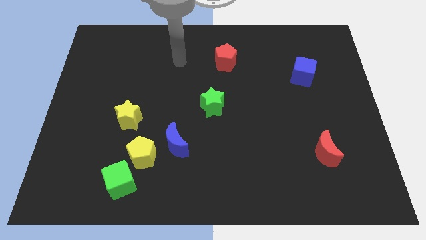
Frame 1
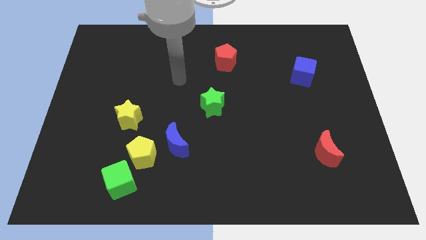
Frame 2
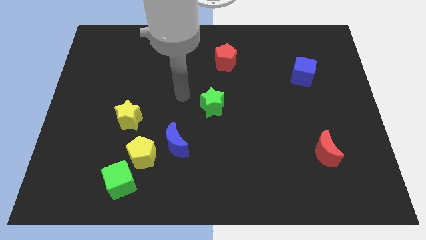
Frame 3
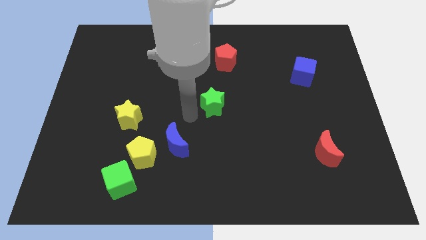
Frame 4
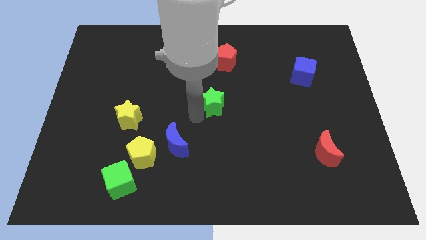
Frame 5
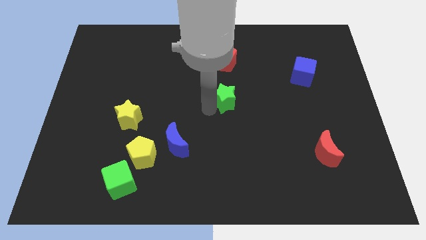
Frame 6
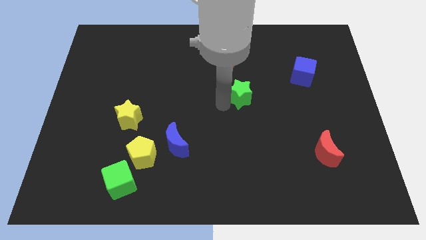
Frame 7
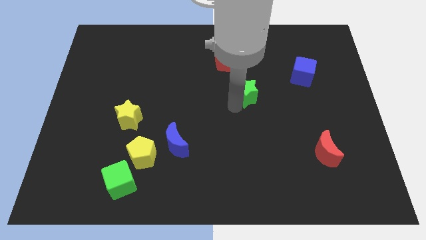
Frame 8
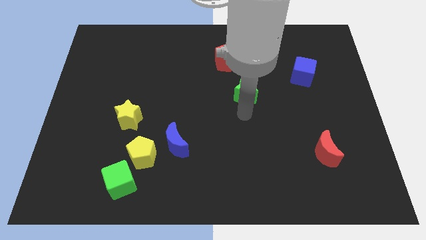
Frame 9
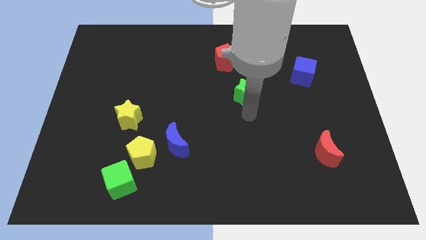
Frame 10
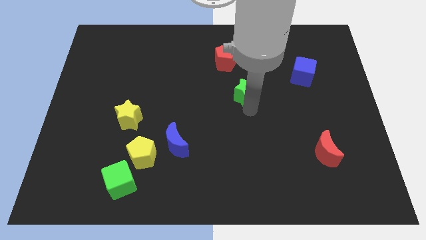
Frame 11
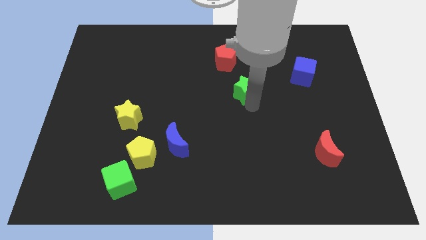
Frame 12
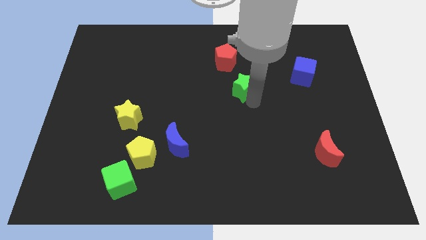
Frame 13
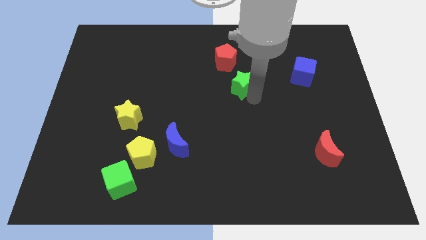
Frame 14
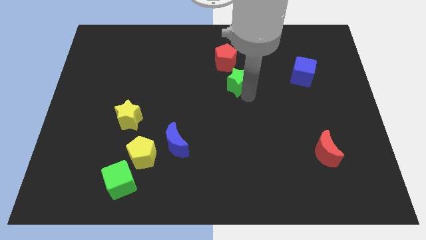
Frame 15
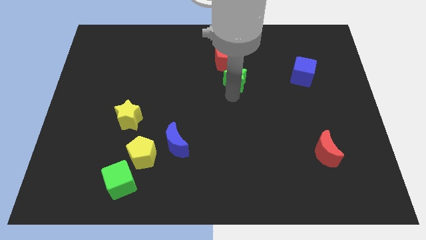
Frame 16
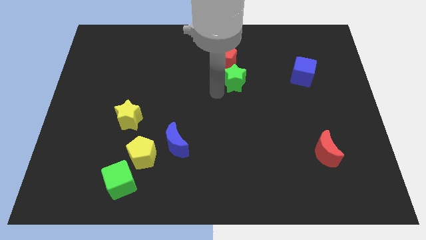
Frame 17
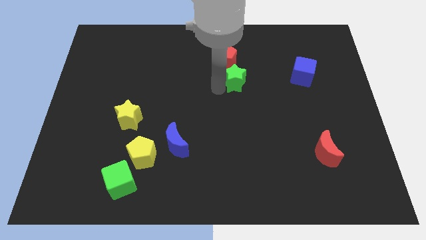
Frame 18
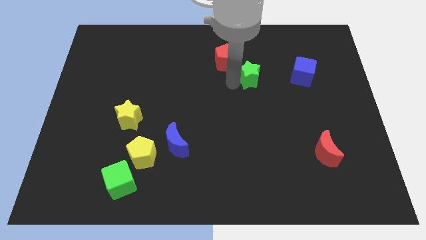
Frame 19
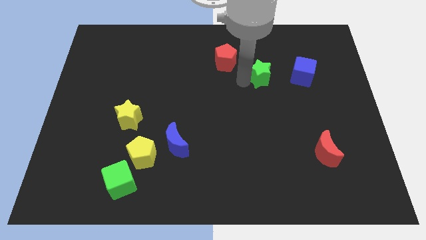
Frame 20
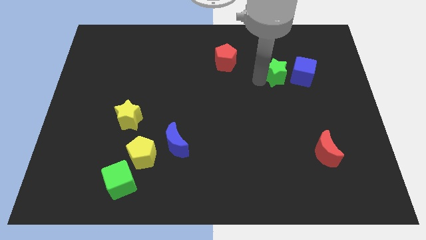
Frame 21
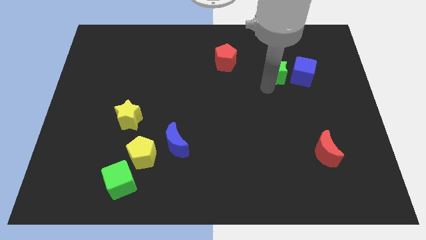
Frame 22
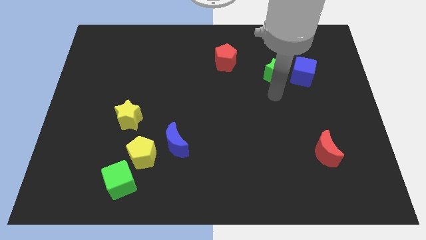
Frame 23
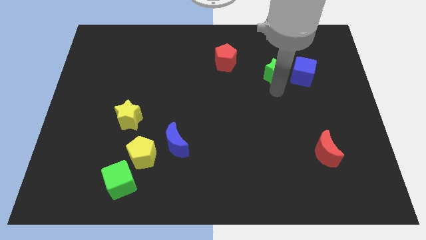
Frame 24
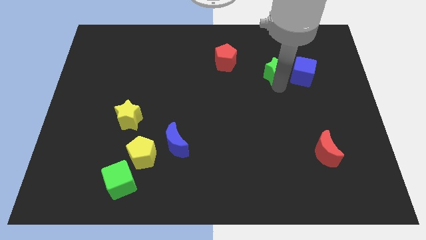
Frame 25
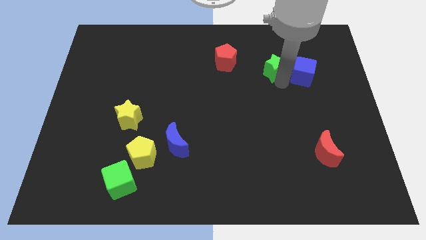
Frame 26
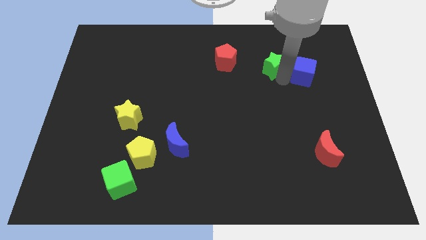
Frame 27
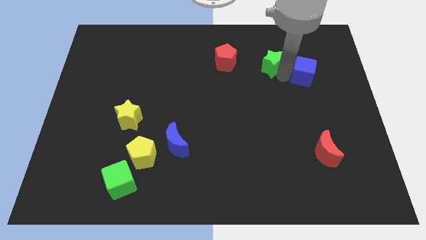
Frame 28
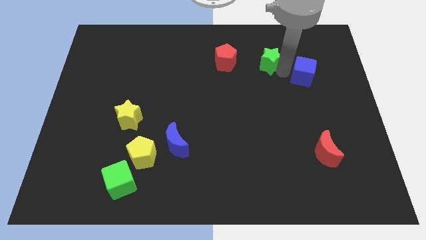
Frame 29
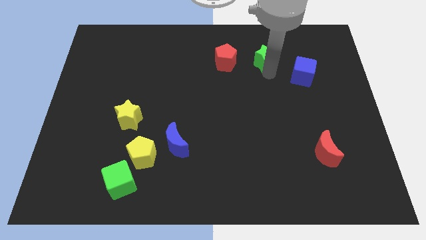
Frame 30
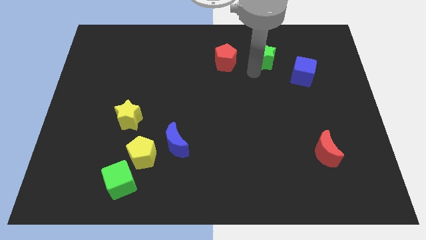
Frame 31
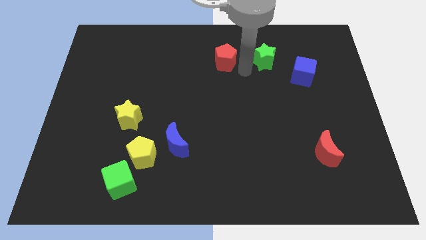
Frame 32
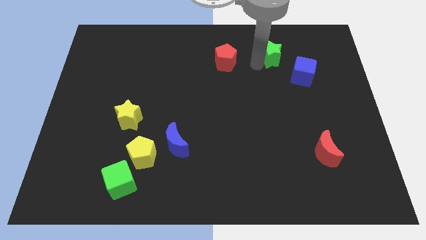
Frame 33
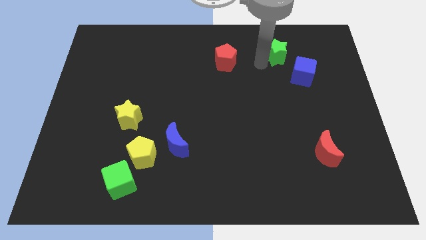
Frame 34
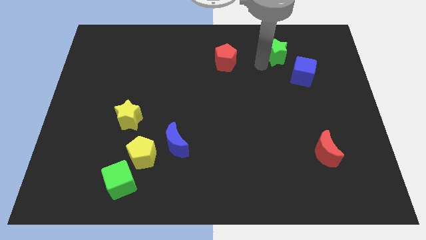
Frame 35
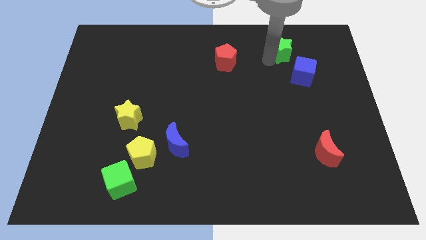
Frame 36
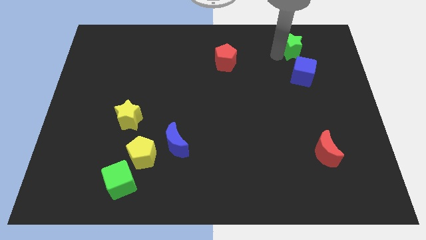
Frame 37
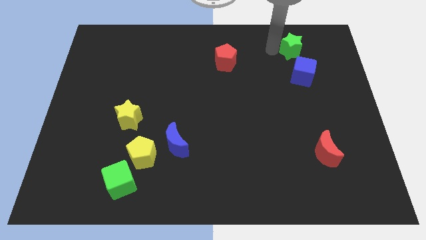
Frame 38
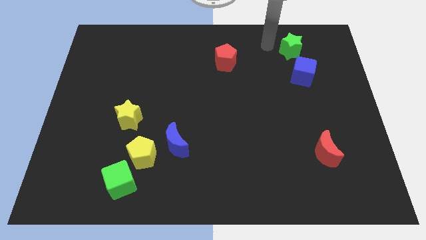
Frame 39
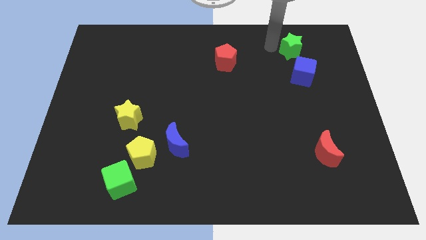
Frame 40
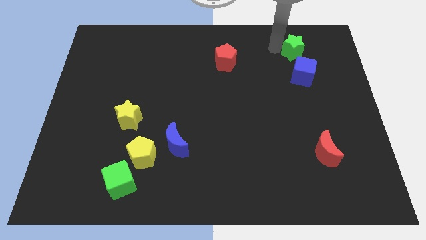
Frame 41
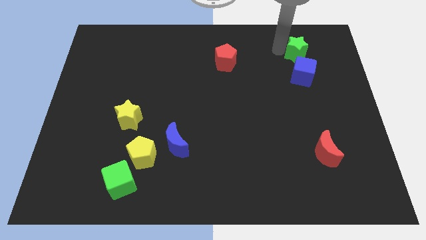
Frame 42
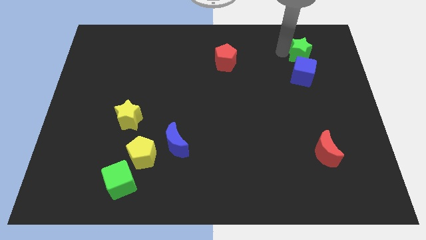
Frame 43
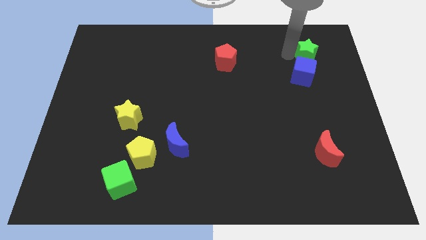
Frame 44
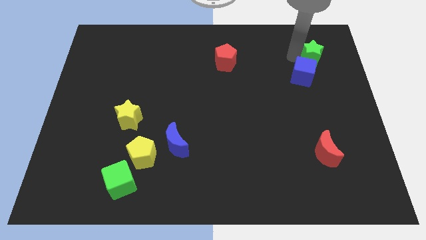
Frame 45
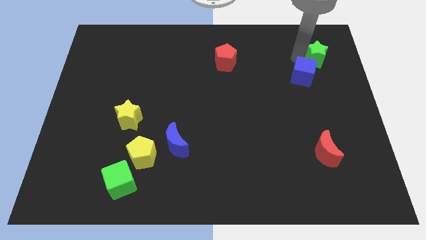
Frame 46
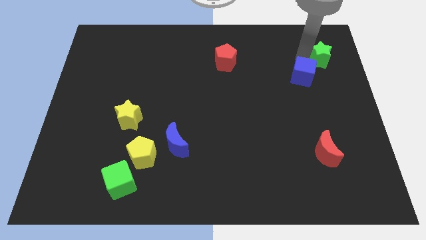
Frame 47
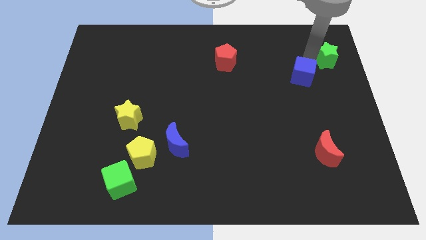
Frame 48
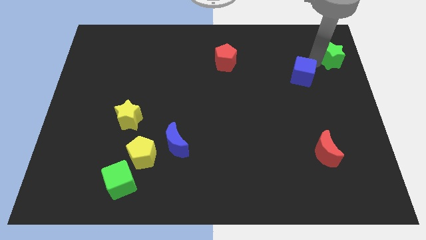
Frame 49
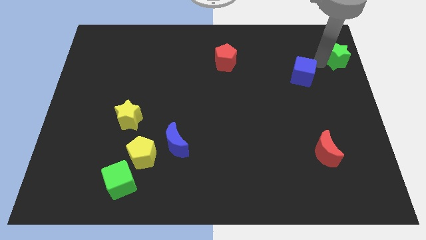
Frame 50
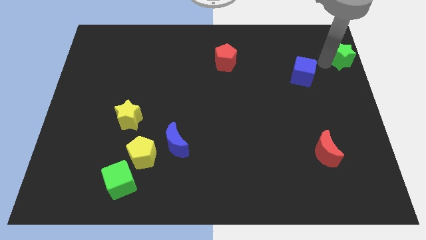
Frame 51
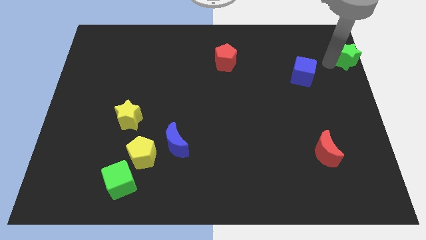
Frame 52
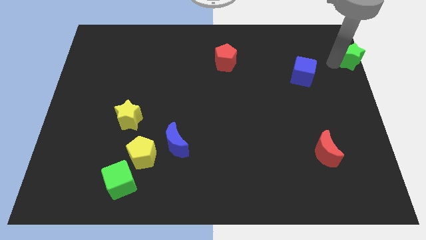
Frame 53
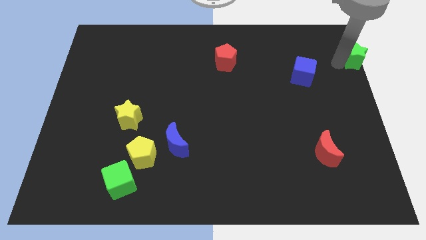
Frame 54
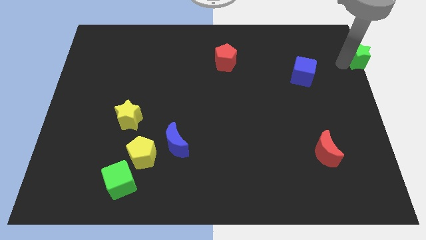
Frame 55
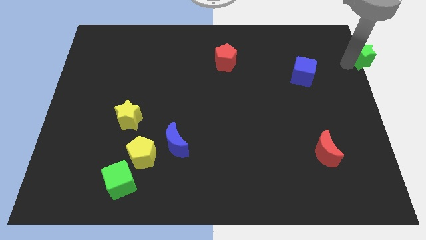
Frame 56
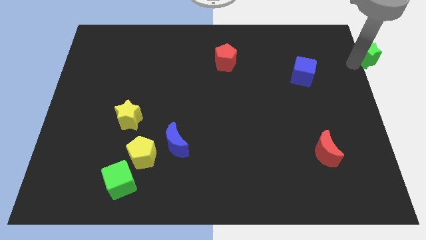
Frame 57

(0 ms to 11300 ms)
move the green star to the top right of the board
